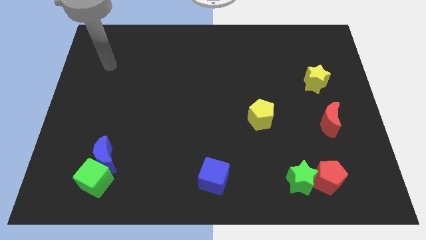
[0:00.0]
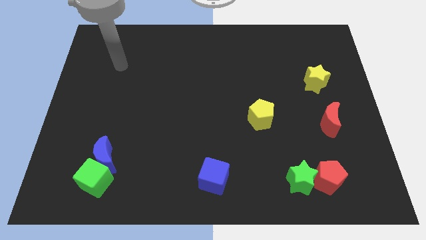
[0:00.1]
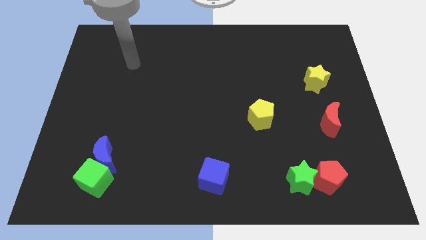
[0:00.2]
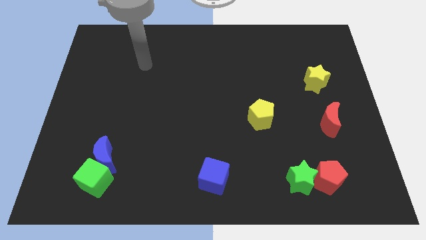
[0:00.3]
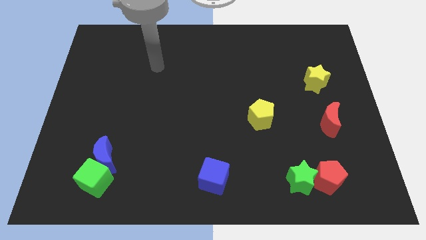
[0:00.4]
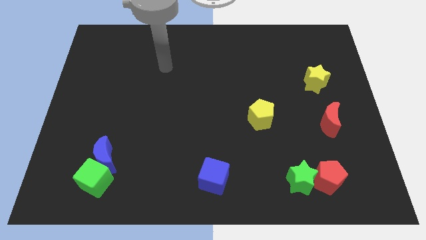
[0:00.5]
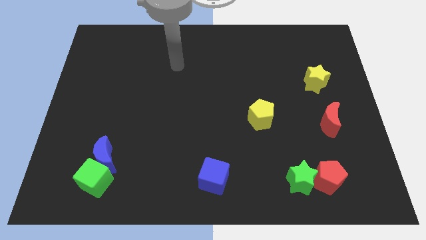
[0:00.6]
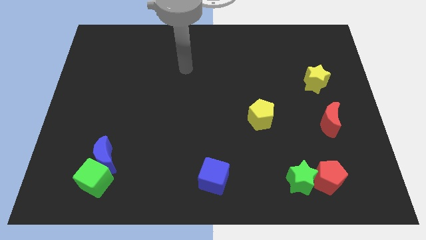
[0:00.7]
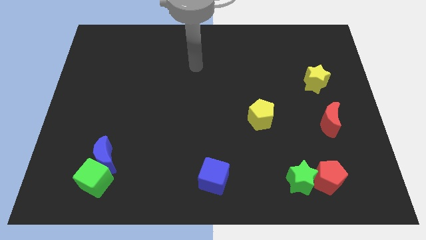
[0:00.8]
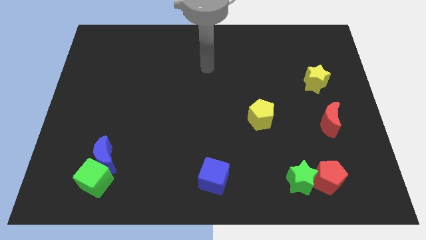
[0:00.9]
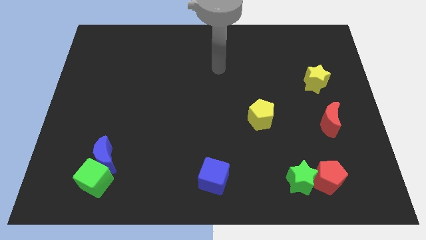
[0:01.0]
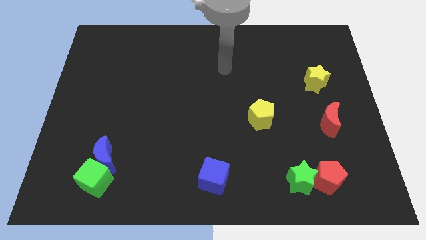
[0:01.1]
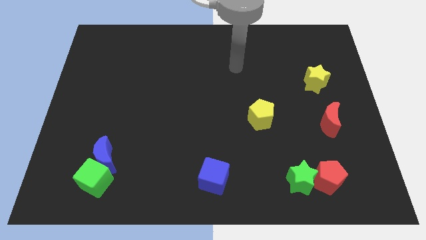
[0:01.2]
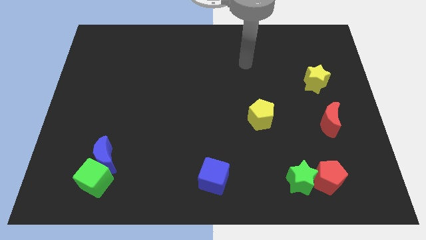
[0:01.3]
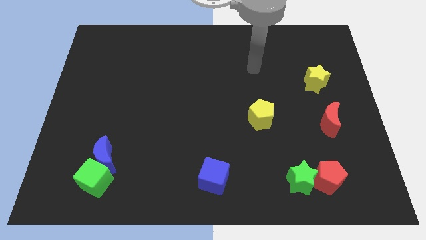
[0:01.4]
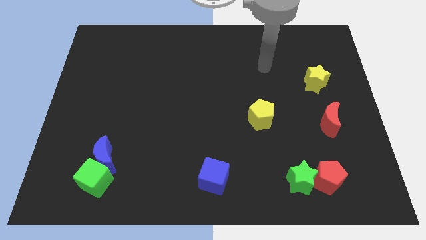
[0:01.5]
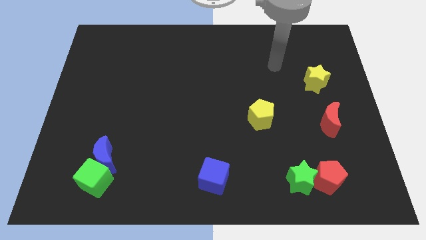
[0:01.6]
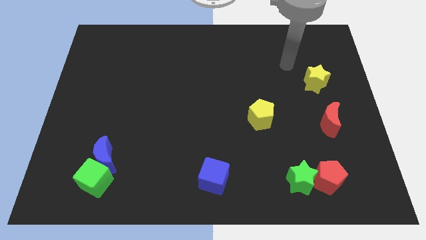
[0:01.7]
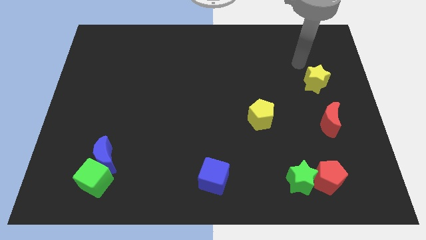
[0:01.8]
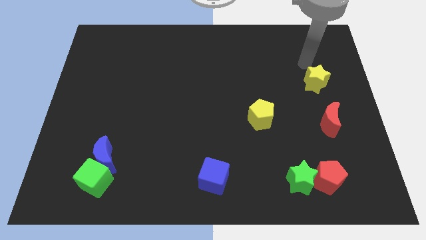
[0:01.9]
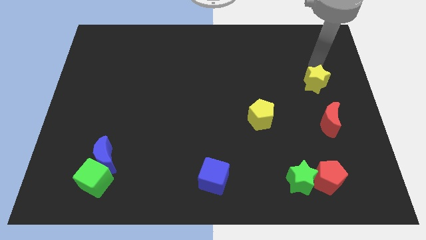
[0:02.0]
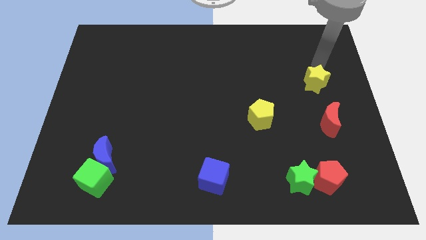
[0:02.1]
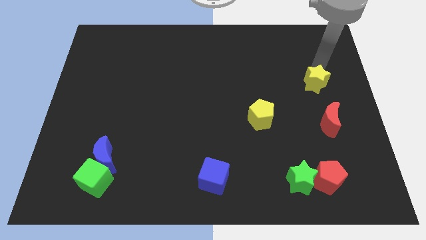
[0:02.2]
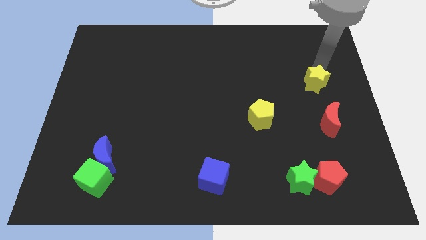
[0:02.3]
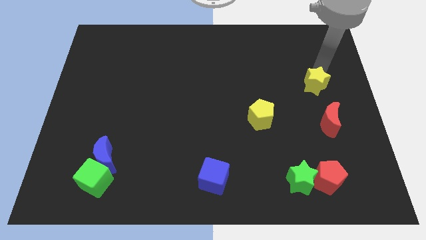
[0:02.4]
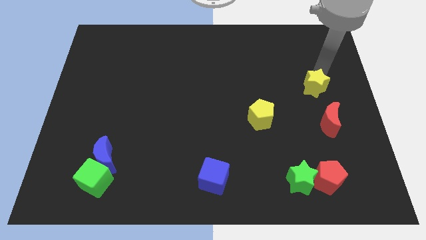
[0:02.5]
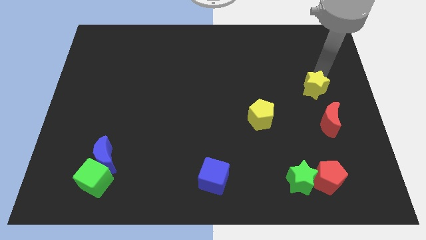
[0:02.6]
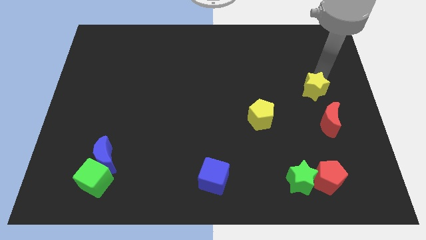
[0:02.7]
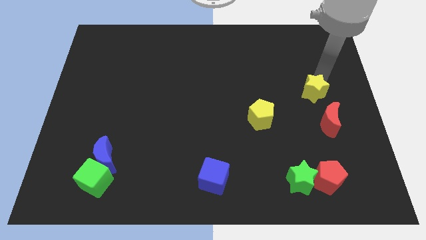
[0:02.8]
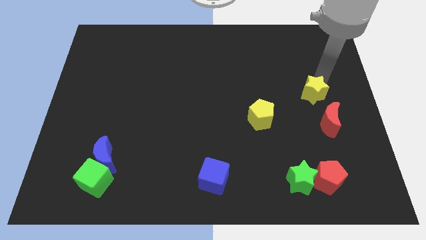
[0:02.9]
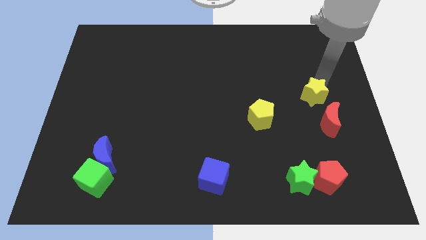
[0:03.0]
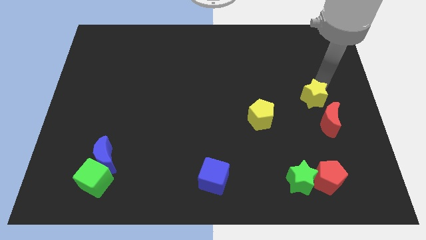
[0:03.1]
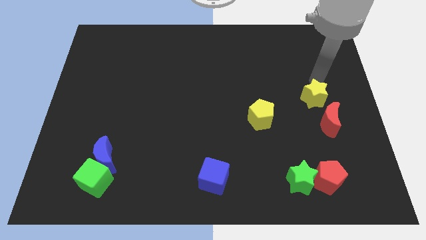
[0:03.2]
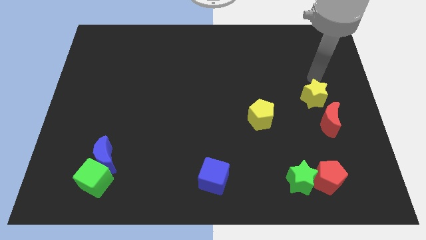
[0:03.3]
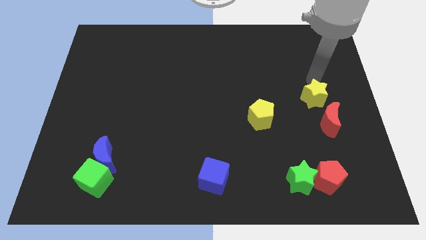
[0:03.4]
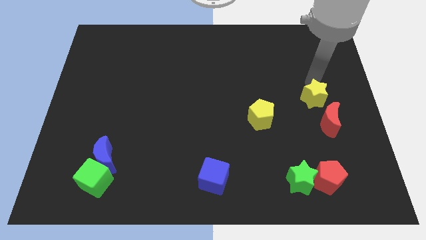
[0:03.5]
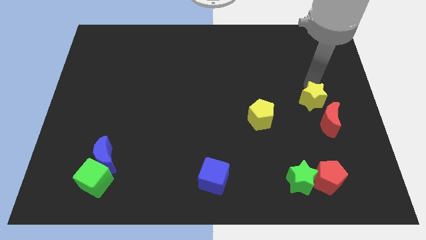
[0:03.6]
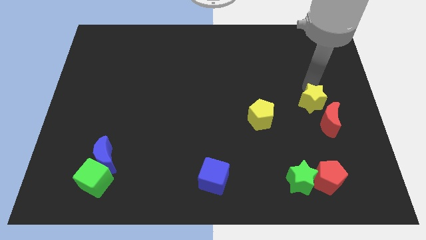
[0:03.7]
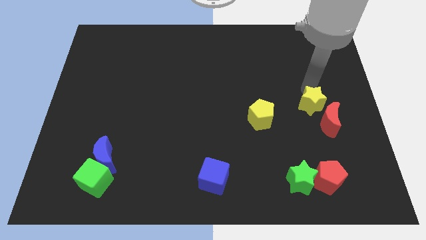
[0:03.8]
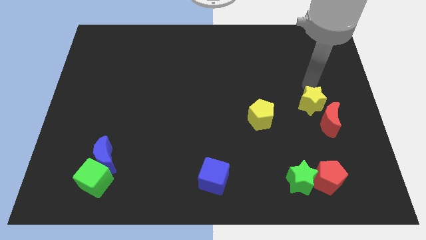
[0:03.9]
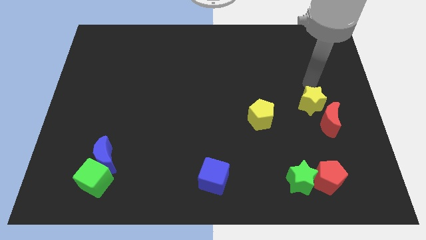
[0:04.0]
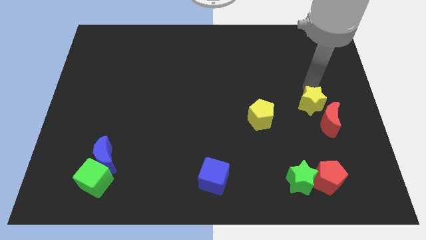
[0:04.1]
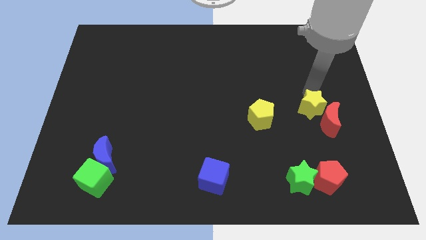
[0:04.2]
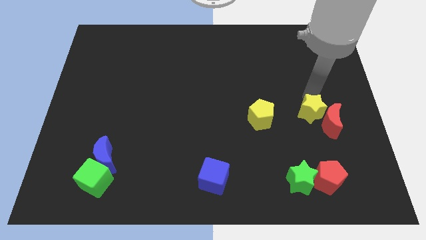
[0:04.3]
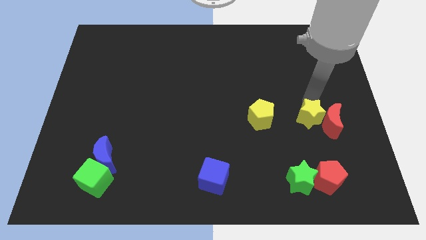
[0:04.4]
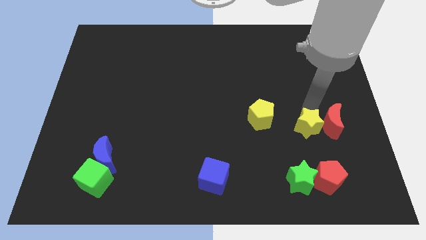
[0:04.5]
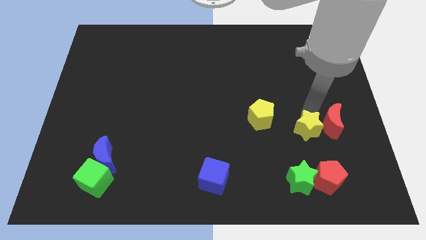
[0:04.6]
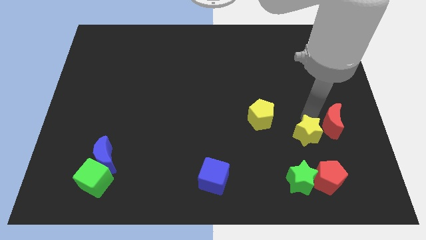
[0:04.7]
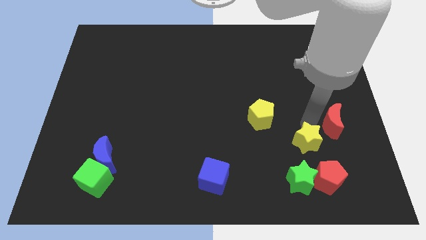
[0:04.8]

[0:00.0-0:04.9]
put the yellow star to the top left side of the red pentagon

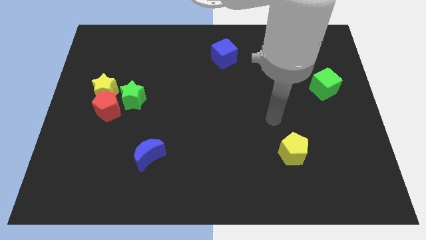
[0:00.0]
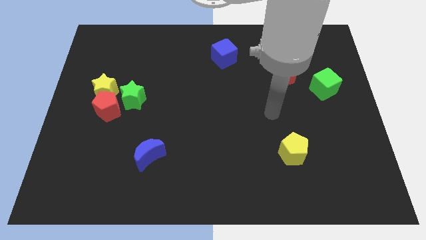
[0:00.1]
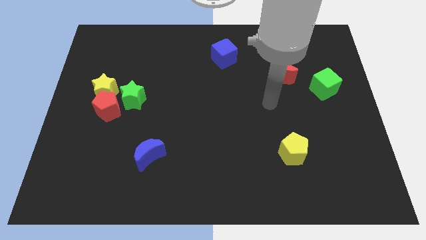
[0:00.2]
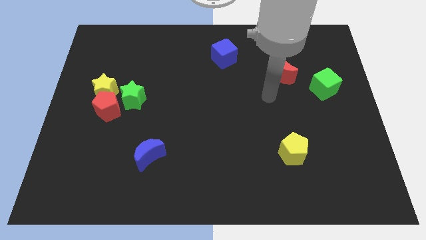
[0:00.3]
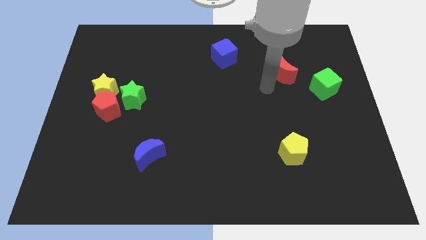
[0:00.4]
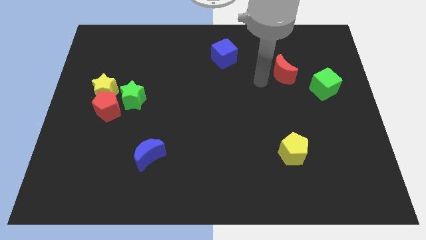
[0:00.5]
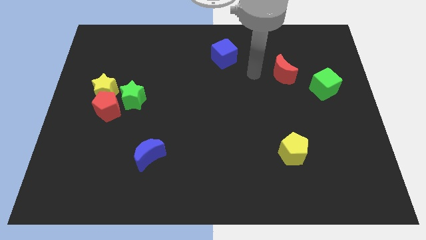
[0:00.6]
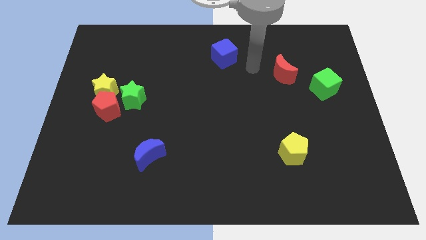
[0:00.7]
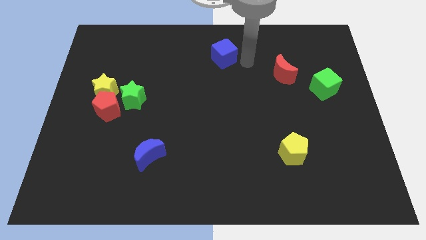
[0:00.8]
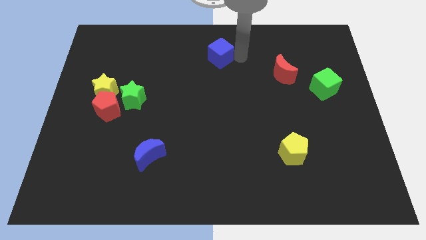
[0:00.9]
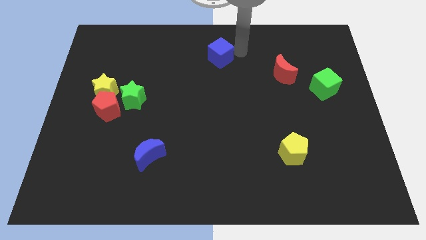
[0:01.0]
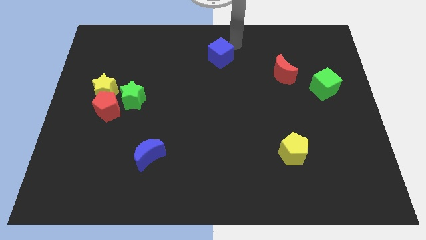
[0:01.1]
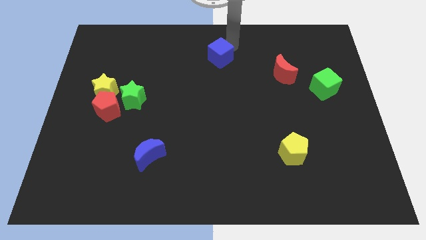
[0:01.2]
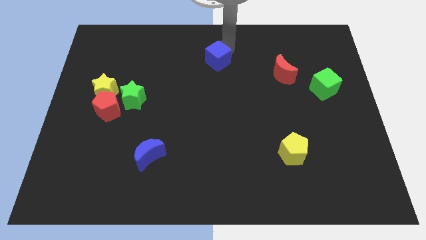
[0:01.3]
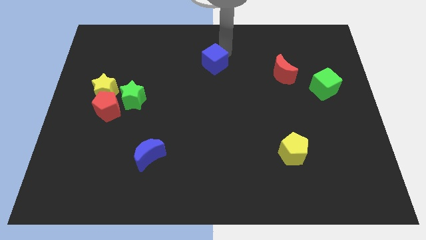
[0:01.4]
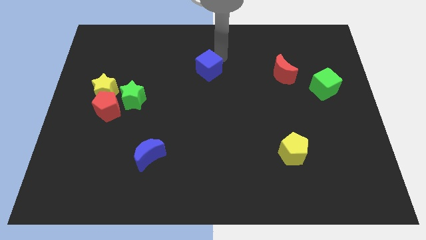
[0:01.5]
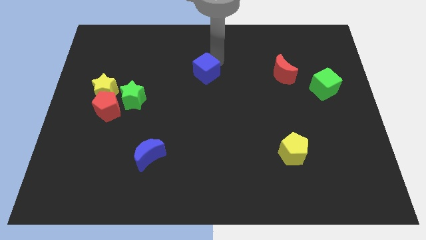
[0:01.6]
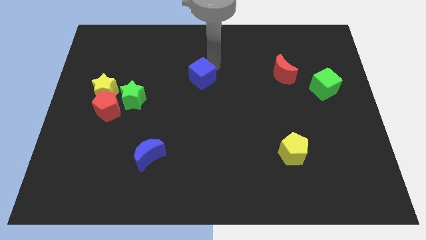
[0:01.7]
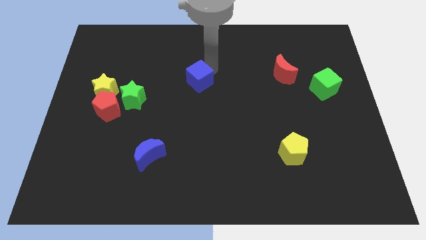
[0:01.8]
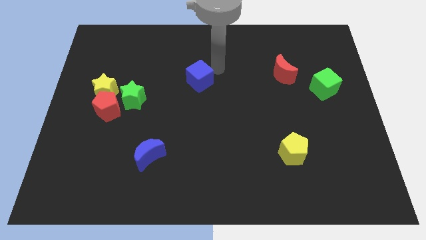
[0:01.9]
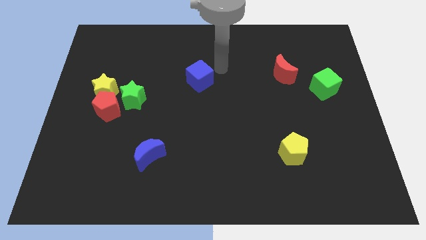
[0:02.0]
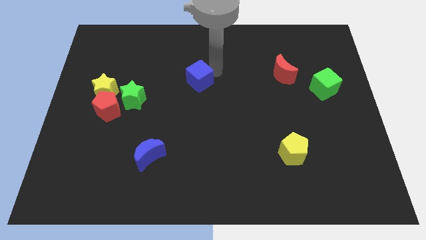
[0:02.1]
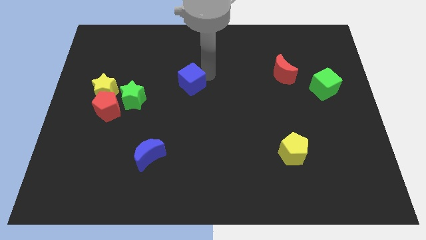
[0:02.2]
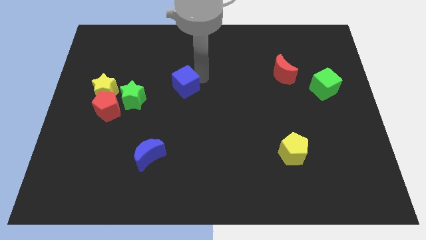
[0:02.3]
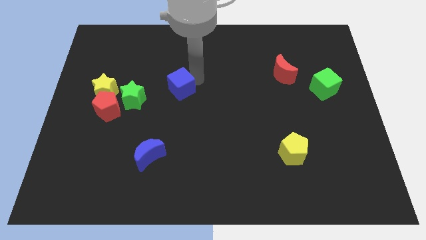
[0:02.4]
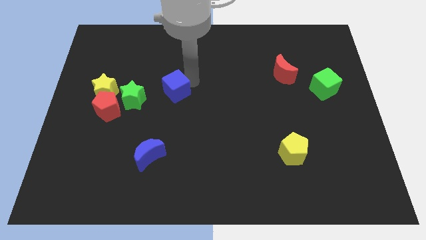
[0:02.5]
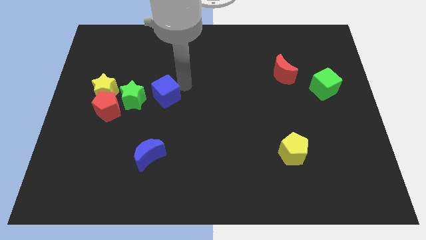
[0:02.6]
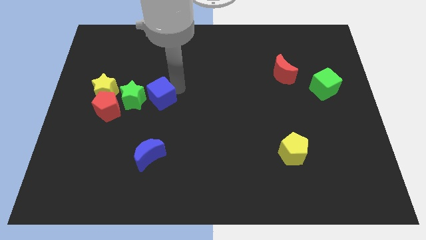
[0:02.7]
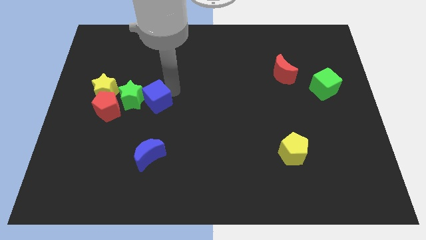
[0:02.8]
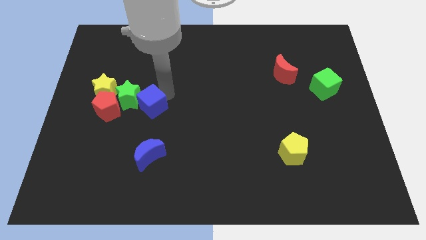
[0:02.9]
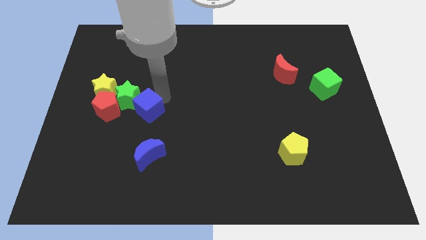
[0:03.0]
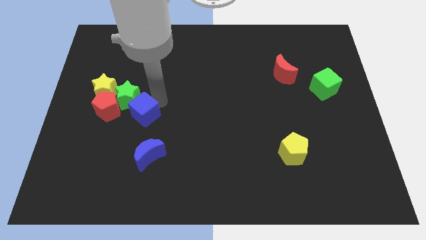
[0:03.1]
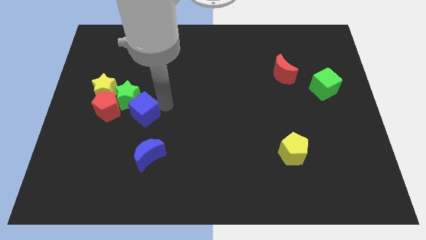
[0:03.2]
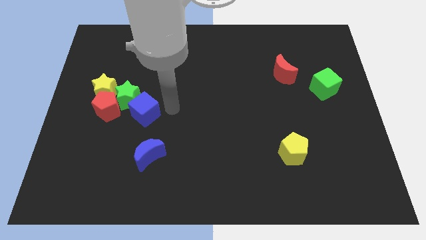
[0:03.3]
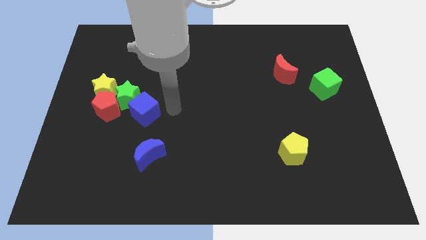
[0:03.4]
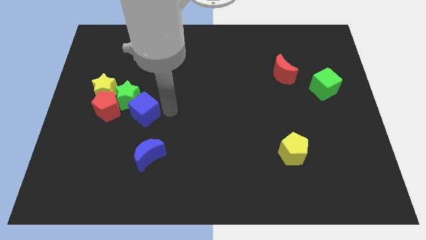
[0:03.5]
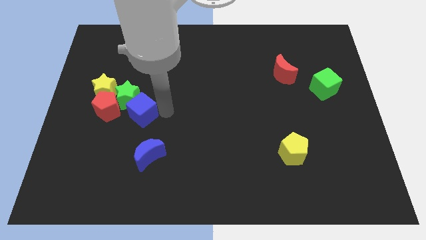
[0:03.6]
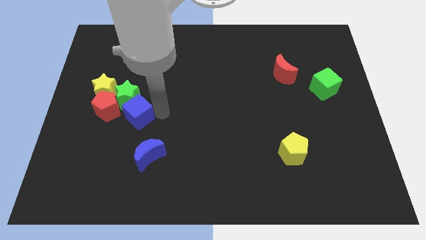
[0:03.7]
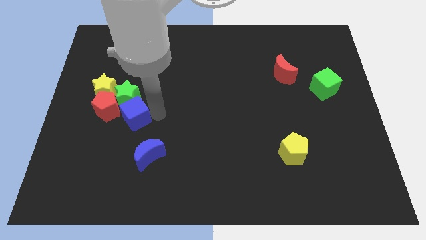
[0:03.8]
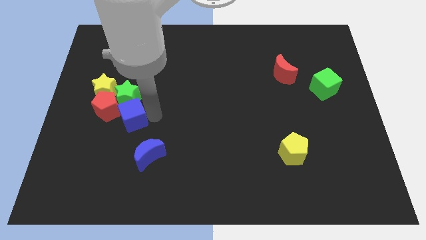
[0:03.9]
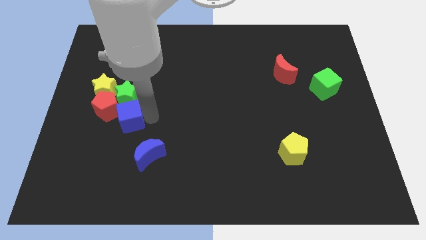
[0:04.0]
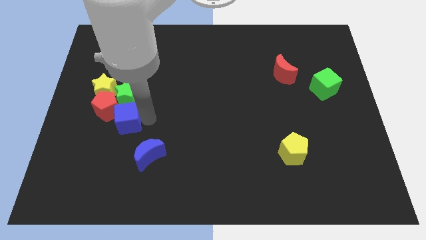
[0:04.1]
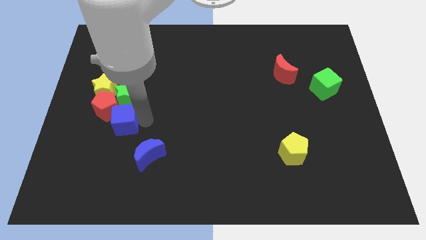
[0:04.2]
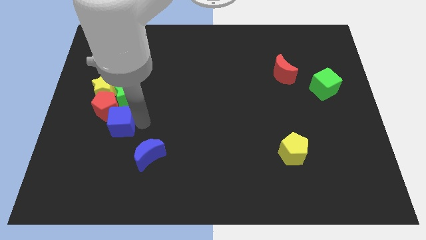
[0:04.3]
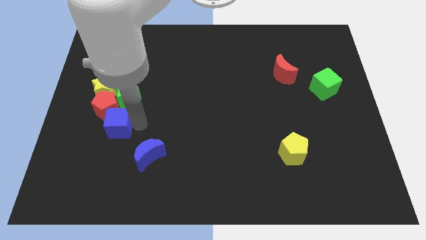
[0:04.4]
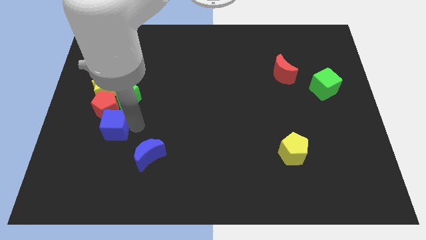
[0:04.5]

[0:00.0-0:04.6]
move the blue cube to the bottom left of the green star
